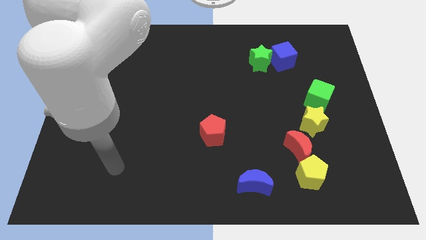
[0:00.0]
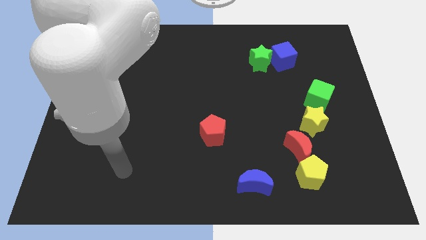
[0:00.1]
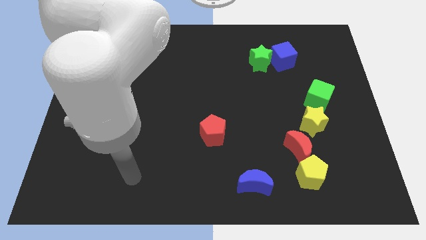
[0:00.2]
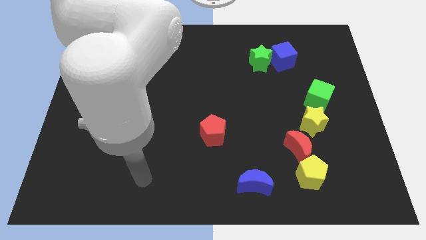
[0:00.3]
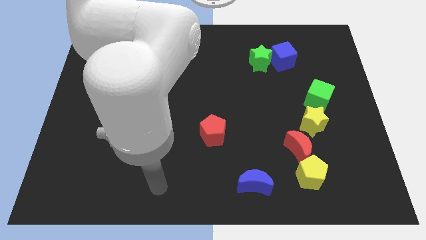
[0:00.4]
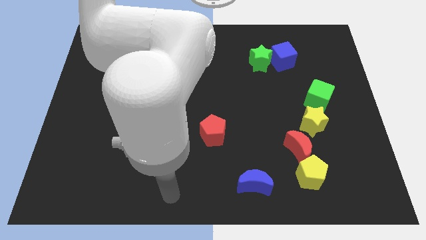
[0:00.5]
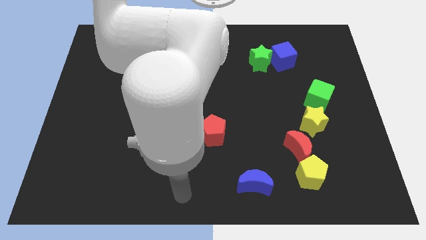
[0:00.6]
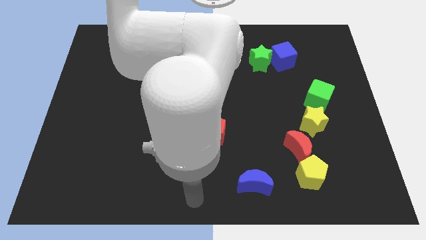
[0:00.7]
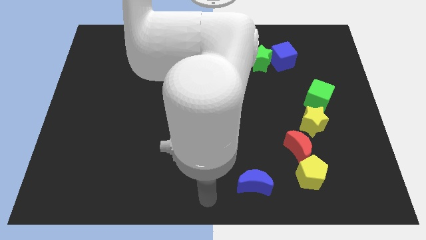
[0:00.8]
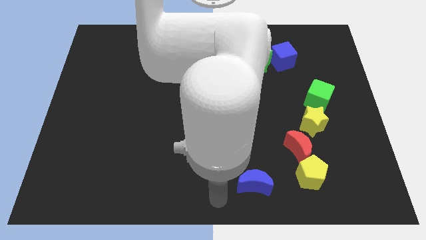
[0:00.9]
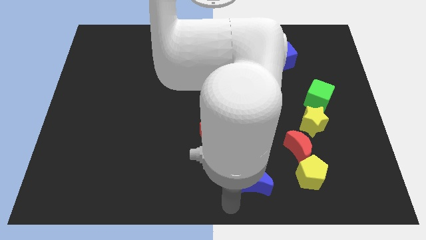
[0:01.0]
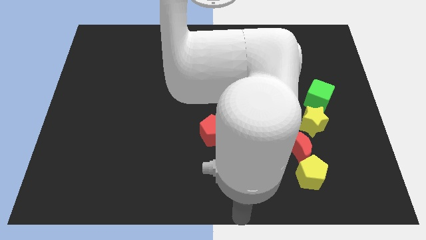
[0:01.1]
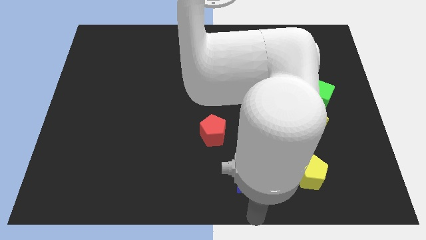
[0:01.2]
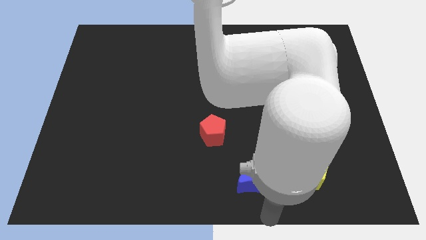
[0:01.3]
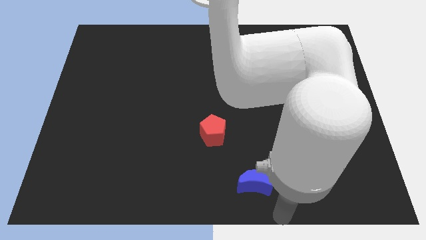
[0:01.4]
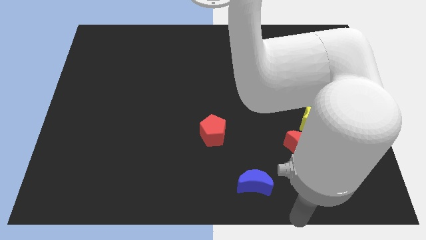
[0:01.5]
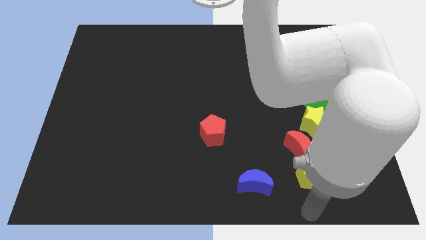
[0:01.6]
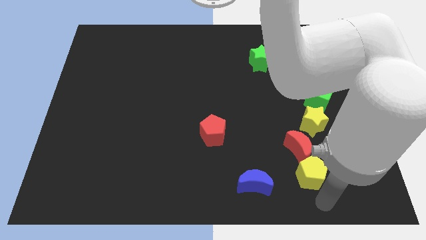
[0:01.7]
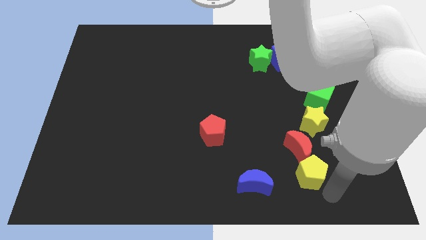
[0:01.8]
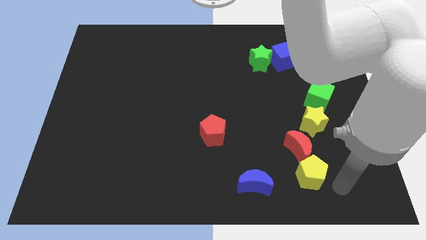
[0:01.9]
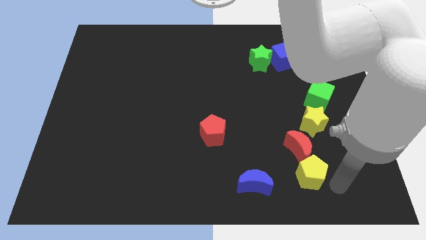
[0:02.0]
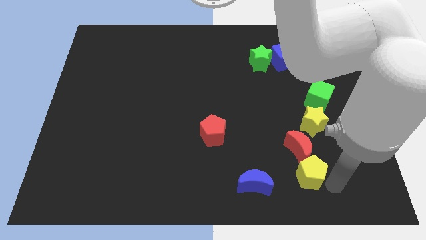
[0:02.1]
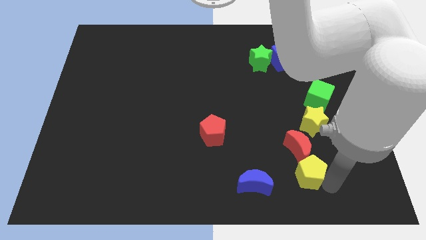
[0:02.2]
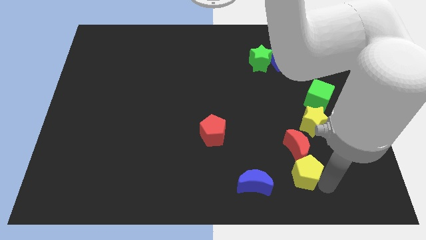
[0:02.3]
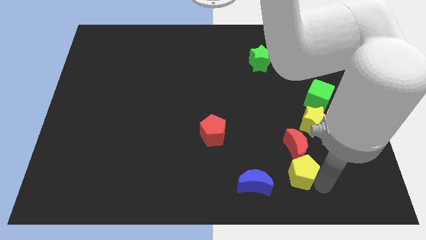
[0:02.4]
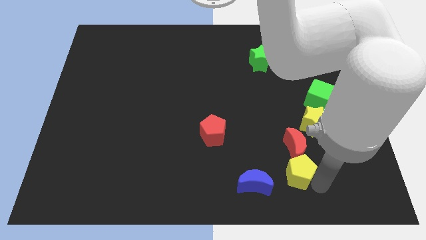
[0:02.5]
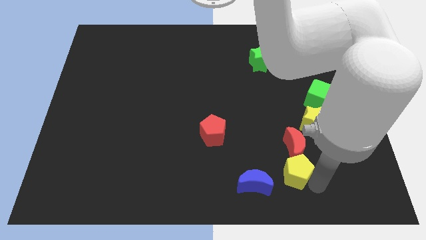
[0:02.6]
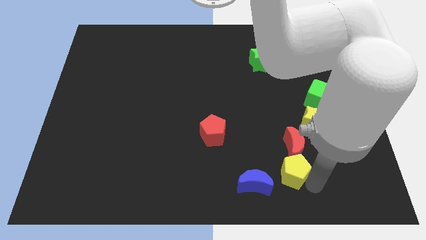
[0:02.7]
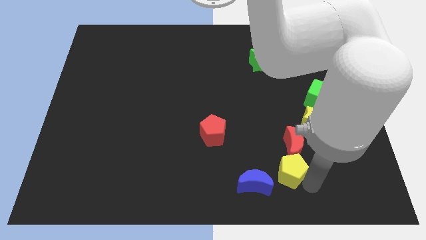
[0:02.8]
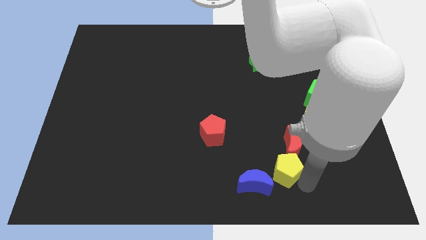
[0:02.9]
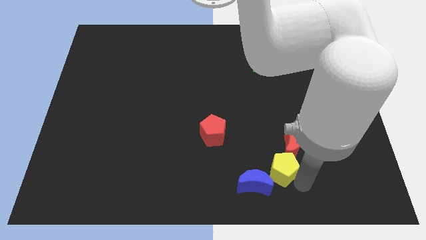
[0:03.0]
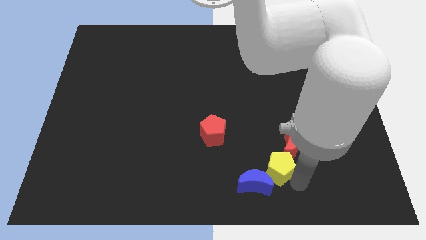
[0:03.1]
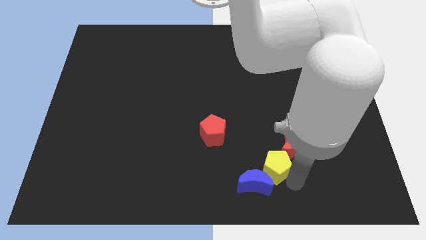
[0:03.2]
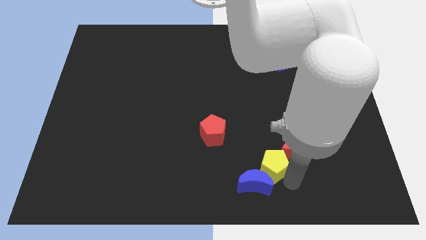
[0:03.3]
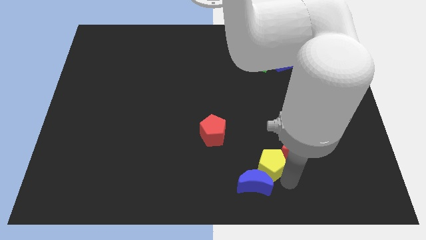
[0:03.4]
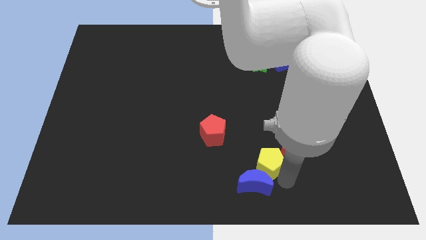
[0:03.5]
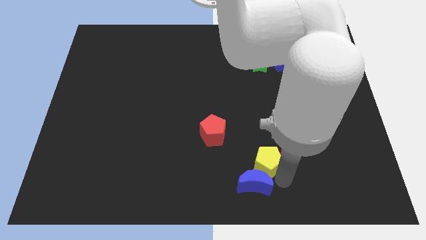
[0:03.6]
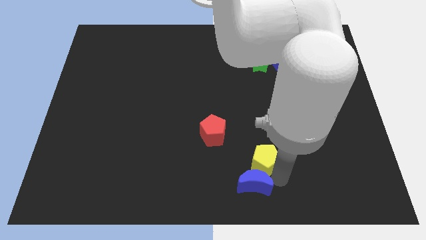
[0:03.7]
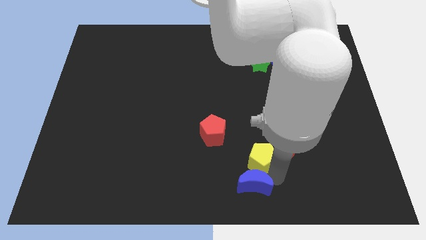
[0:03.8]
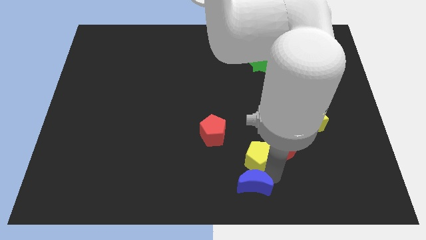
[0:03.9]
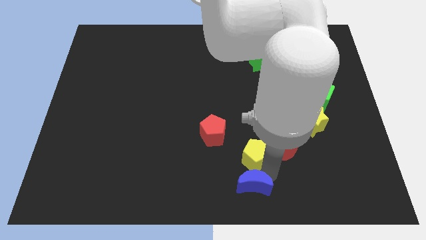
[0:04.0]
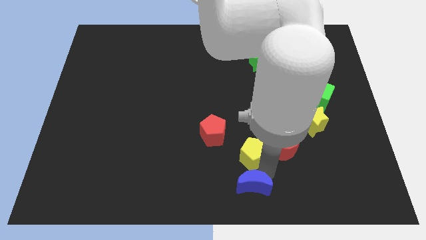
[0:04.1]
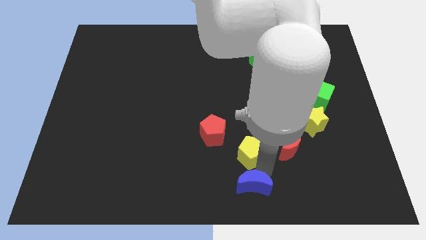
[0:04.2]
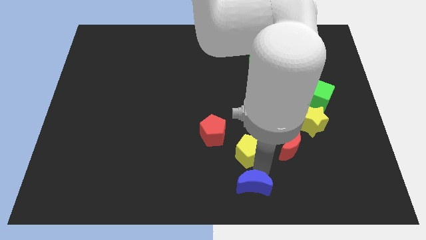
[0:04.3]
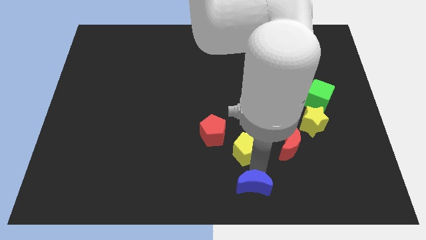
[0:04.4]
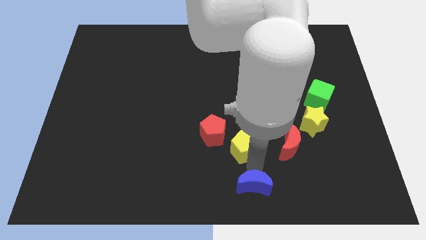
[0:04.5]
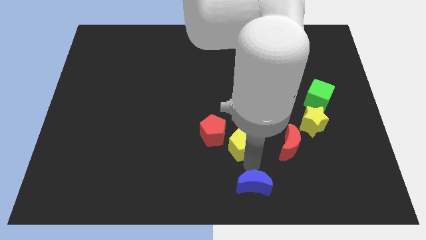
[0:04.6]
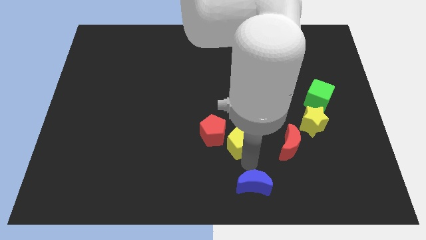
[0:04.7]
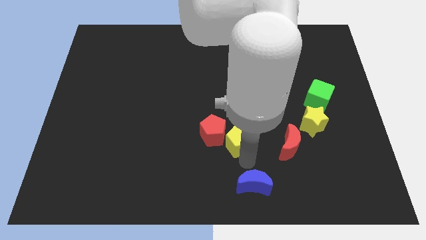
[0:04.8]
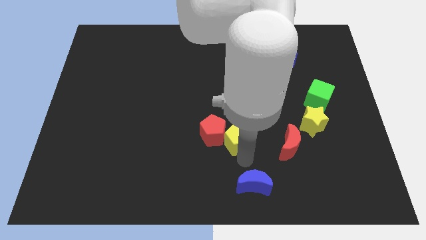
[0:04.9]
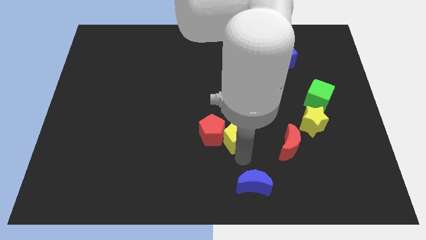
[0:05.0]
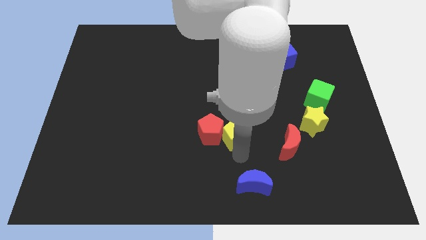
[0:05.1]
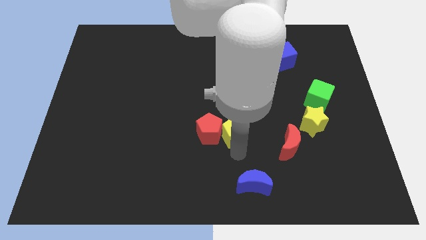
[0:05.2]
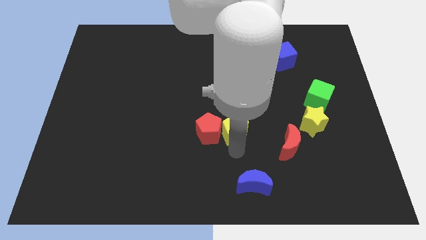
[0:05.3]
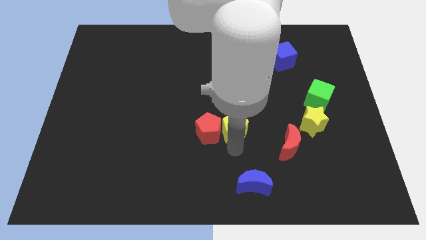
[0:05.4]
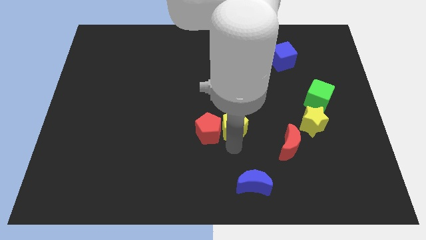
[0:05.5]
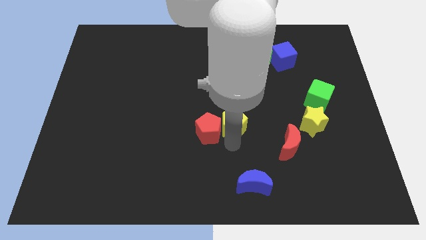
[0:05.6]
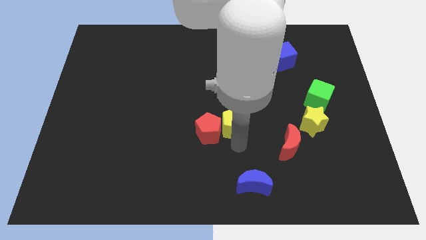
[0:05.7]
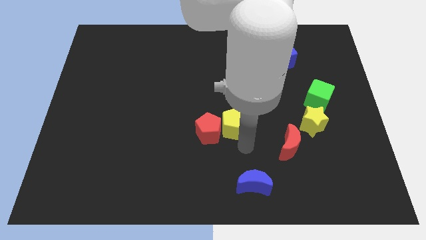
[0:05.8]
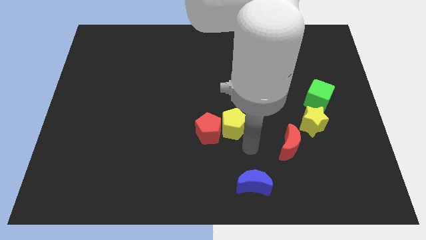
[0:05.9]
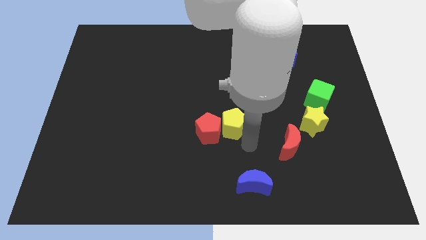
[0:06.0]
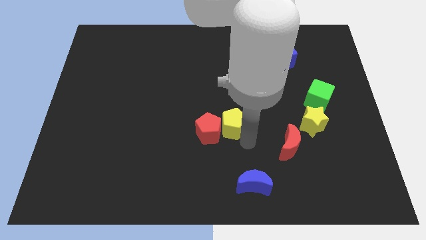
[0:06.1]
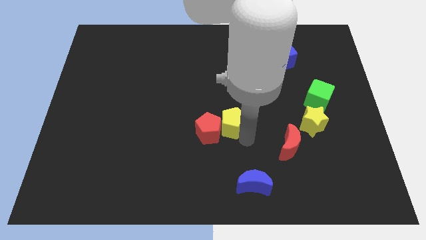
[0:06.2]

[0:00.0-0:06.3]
slide the yellow pentagon upwards and to the left diagonally

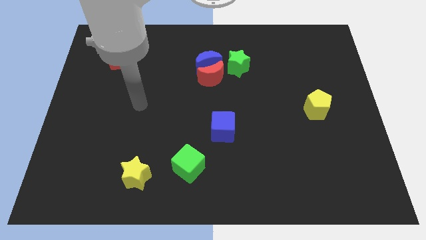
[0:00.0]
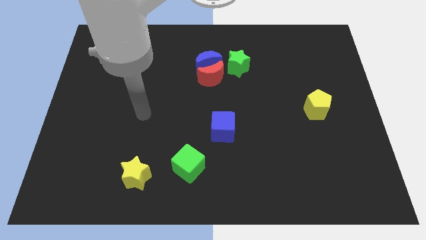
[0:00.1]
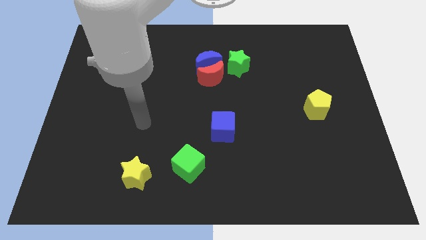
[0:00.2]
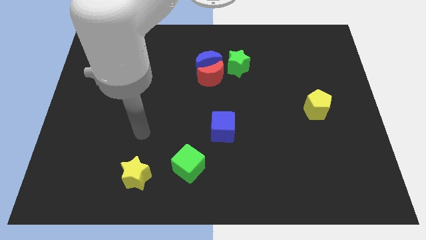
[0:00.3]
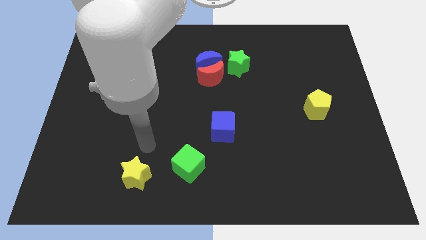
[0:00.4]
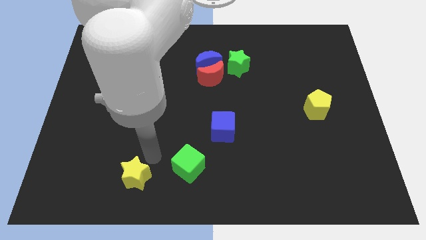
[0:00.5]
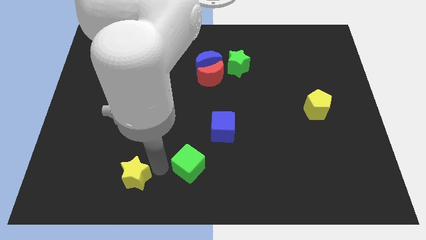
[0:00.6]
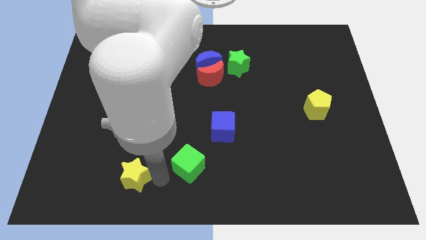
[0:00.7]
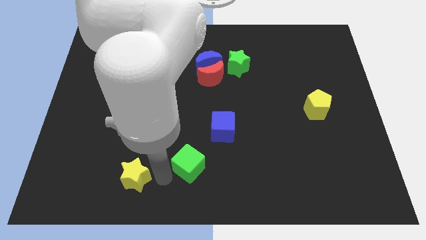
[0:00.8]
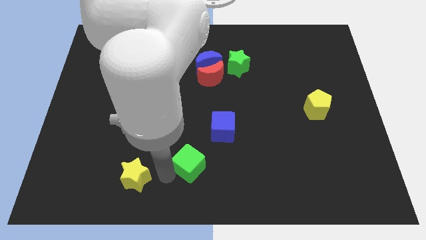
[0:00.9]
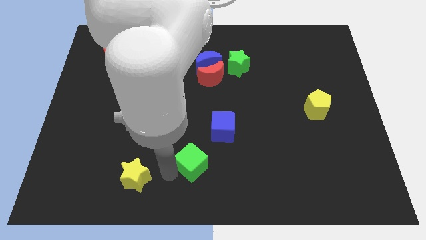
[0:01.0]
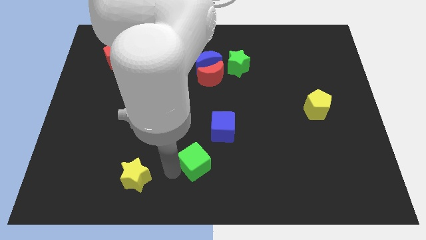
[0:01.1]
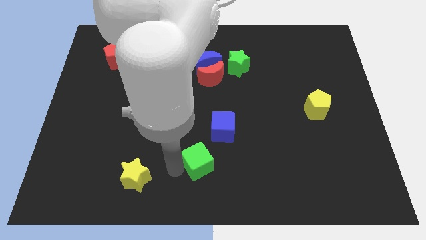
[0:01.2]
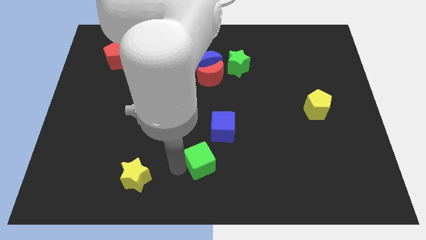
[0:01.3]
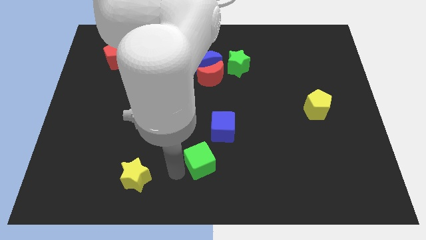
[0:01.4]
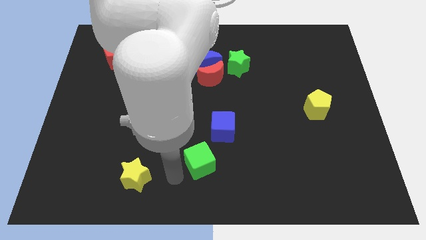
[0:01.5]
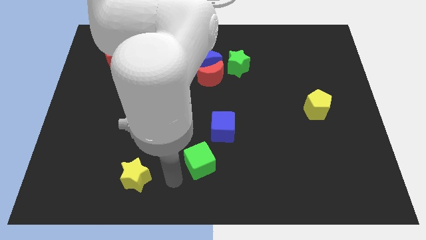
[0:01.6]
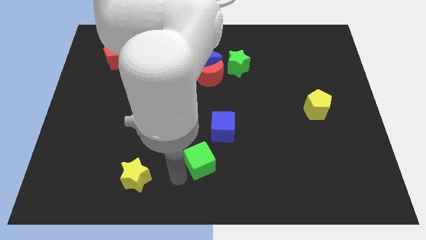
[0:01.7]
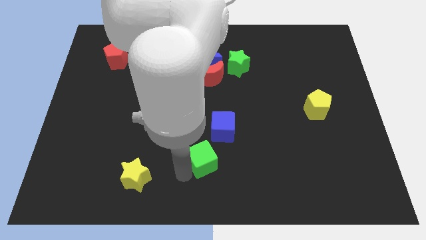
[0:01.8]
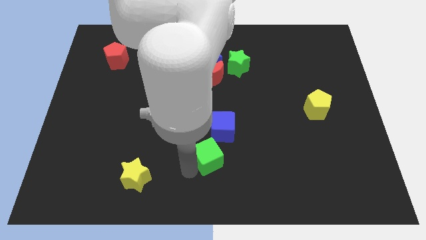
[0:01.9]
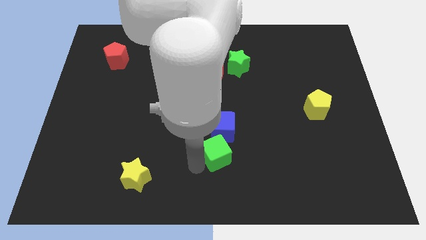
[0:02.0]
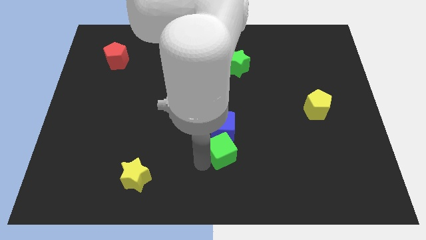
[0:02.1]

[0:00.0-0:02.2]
move the green cube diagonally upwards and right somewhat
